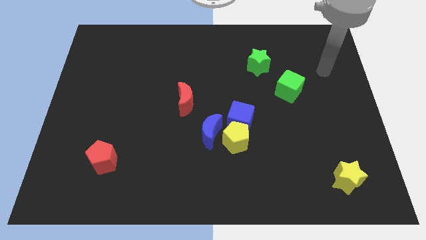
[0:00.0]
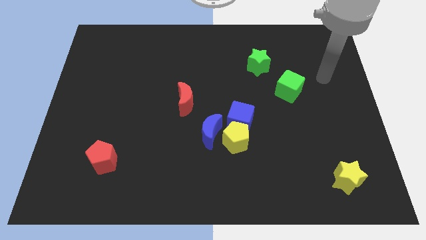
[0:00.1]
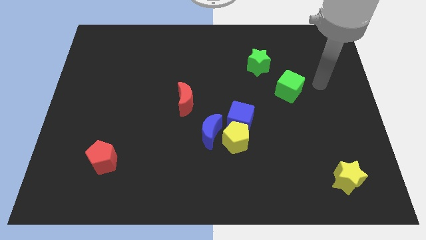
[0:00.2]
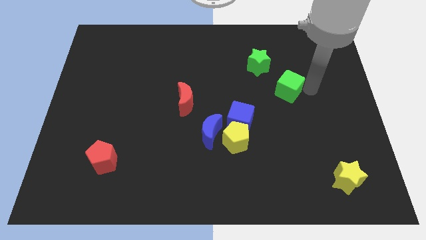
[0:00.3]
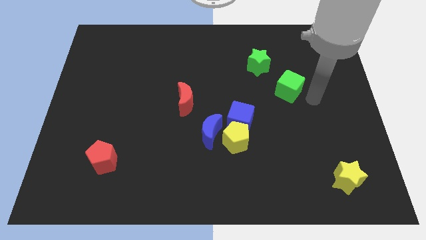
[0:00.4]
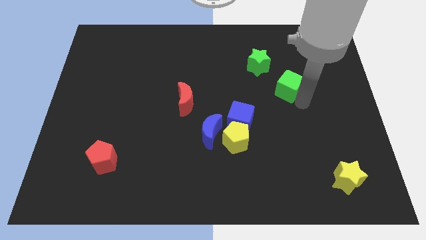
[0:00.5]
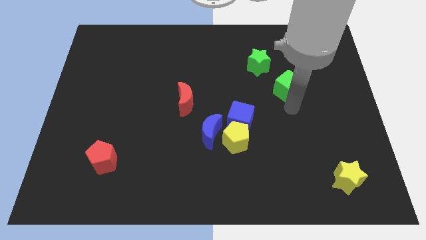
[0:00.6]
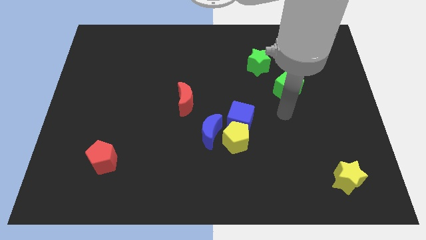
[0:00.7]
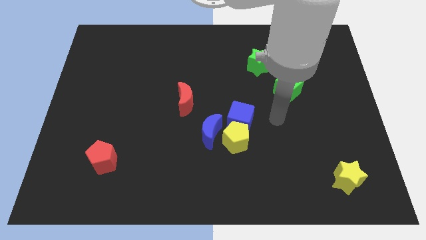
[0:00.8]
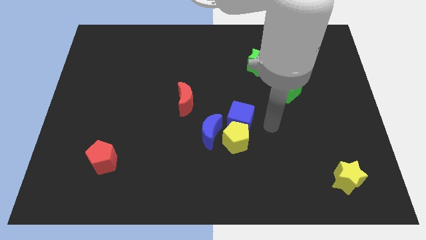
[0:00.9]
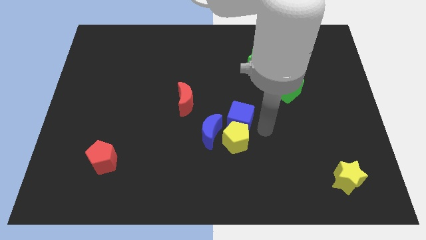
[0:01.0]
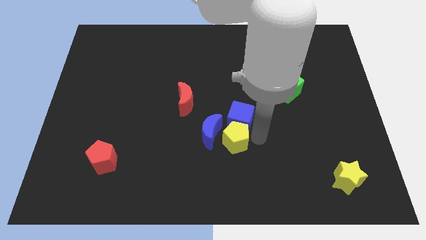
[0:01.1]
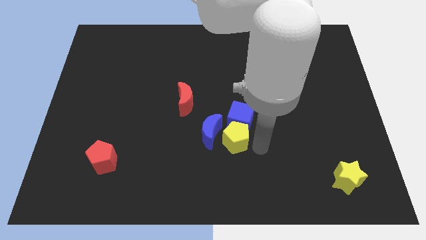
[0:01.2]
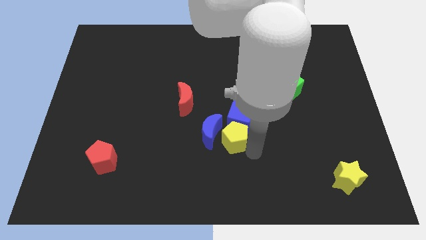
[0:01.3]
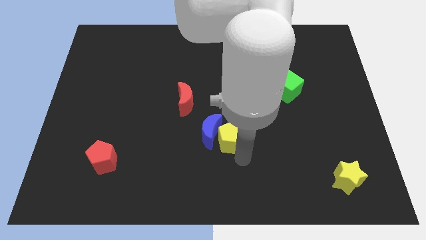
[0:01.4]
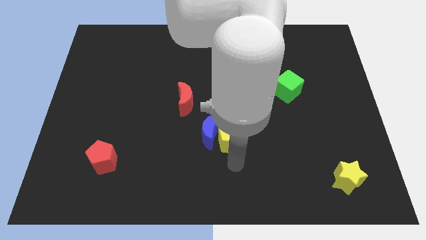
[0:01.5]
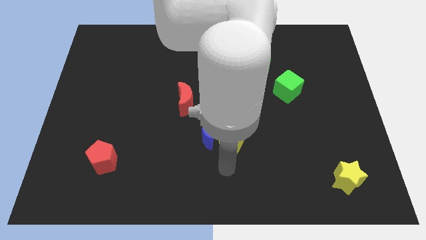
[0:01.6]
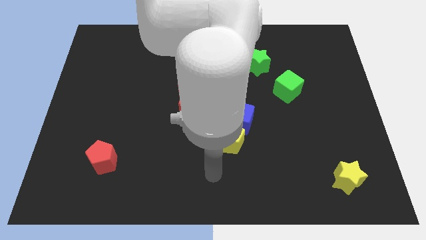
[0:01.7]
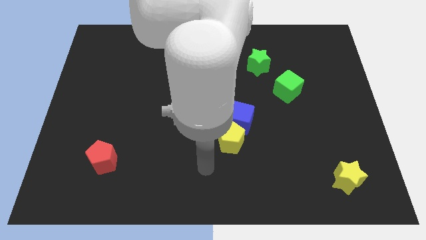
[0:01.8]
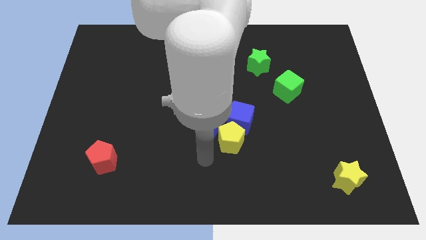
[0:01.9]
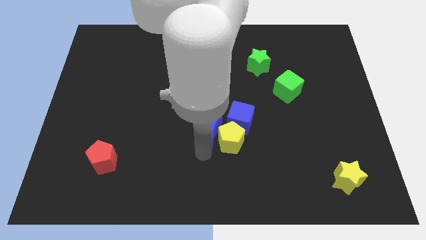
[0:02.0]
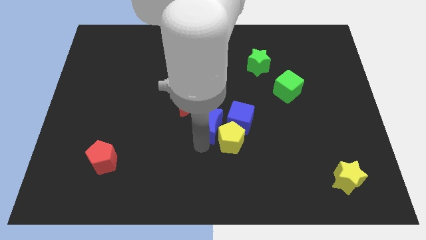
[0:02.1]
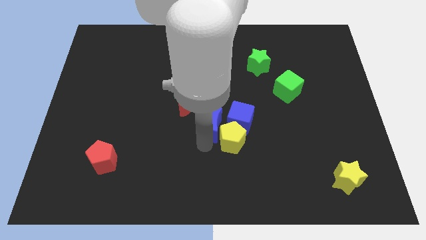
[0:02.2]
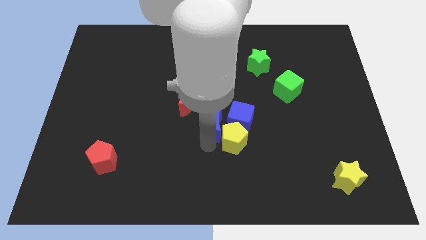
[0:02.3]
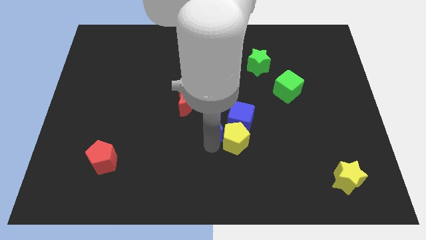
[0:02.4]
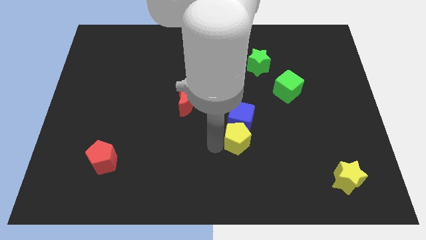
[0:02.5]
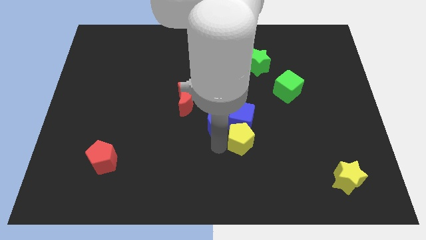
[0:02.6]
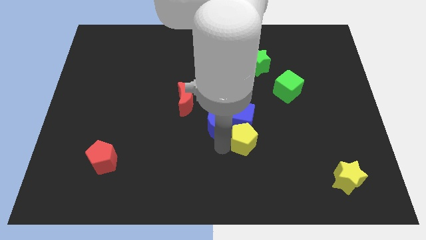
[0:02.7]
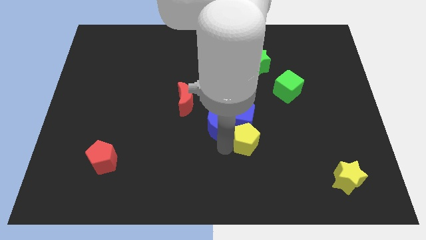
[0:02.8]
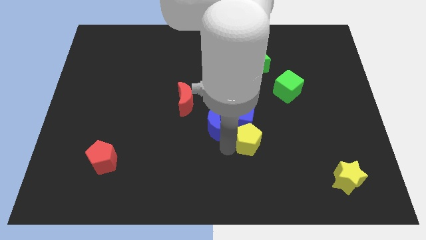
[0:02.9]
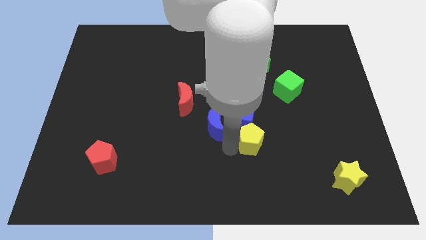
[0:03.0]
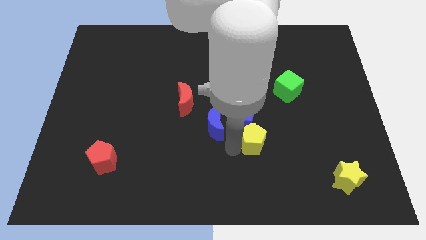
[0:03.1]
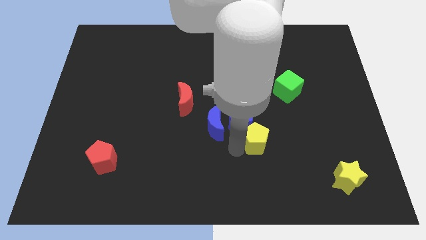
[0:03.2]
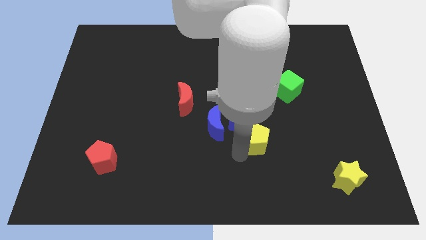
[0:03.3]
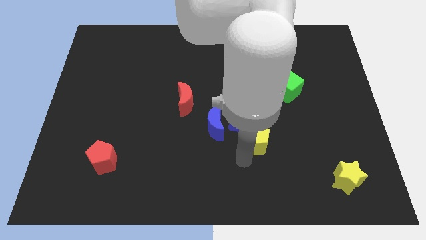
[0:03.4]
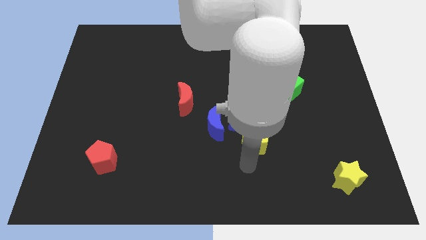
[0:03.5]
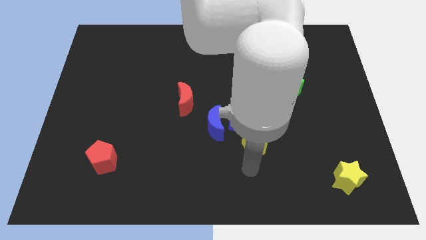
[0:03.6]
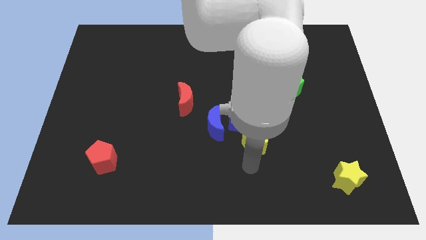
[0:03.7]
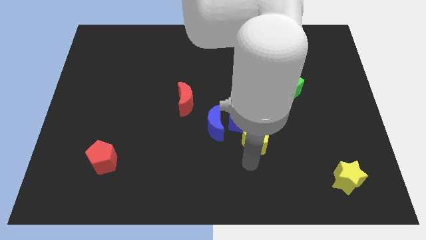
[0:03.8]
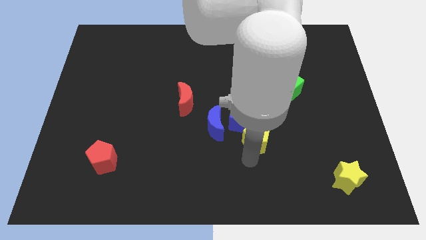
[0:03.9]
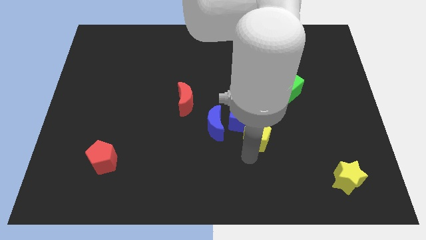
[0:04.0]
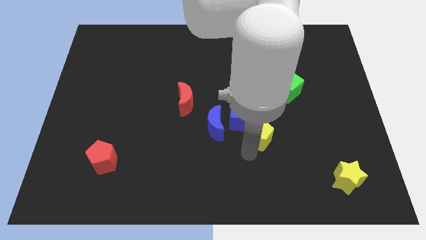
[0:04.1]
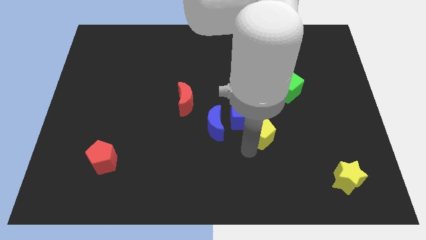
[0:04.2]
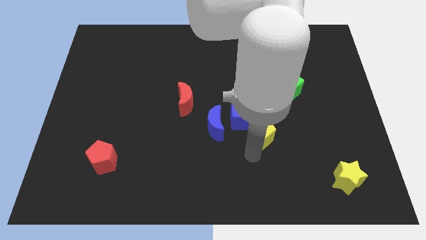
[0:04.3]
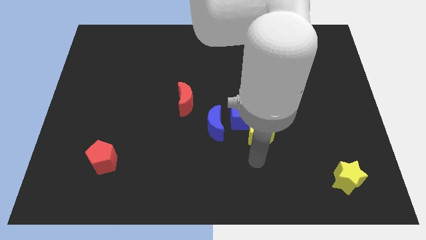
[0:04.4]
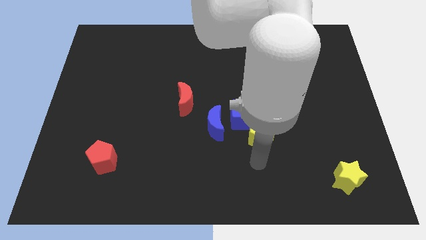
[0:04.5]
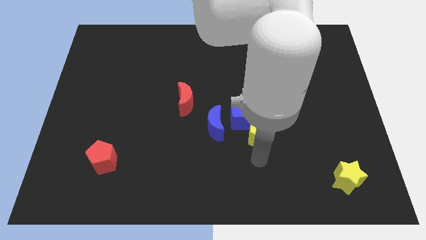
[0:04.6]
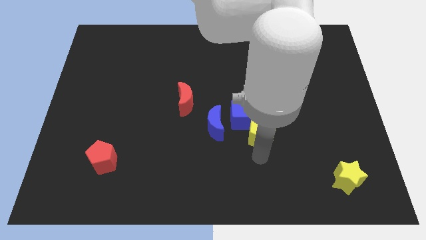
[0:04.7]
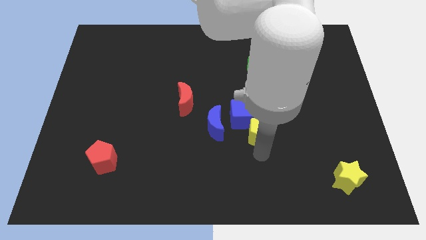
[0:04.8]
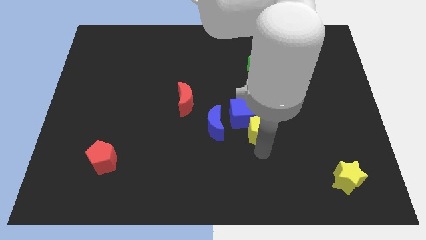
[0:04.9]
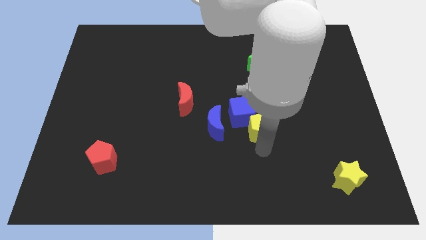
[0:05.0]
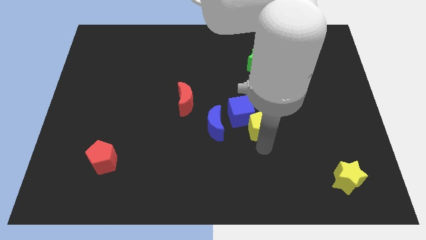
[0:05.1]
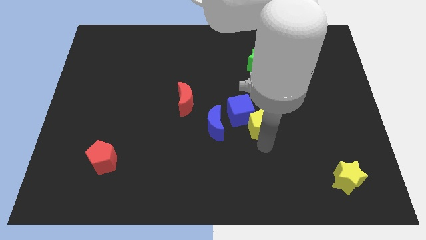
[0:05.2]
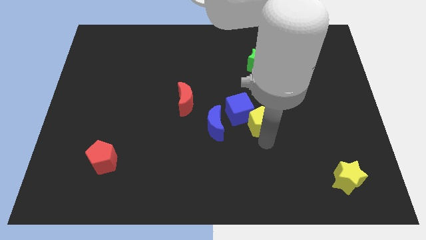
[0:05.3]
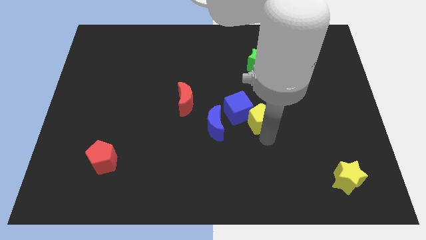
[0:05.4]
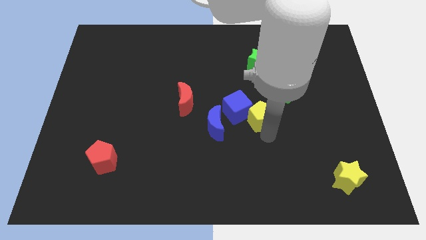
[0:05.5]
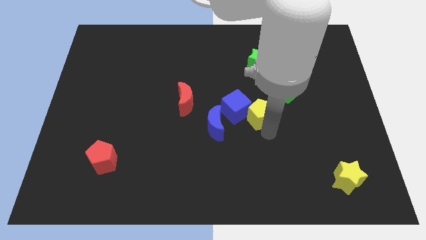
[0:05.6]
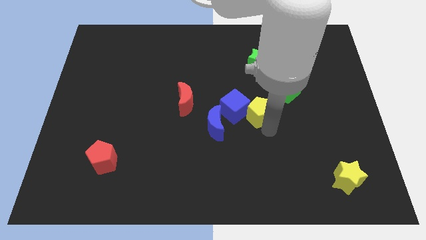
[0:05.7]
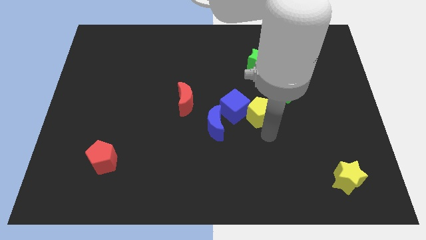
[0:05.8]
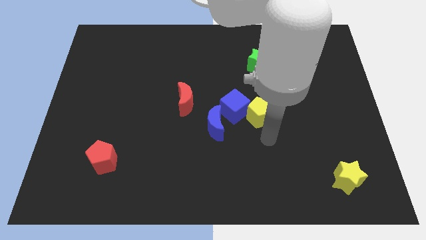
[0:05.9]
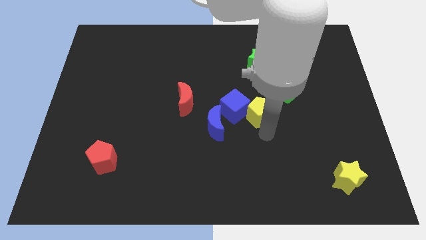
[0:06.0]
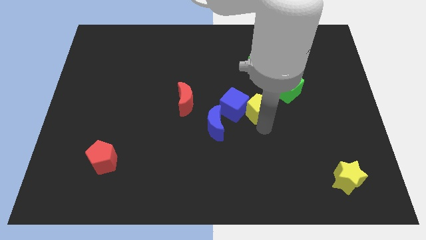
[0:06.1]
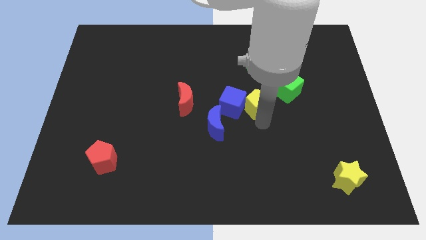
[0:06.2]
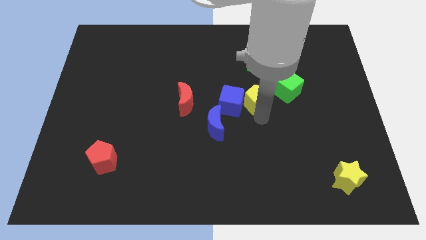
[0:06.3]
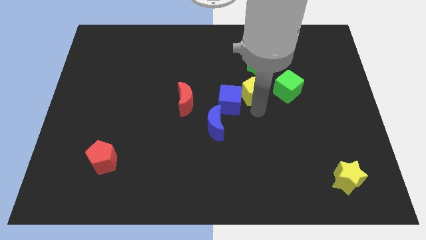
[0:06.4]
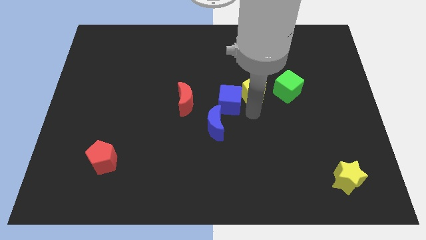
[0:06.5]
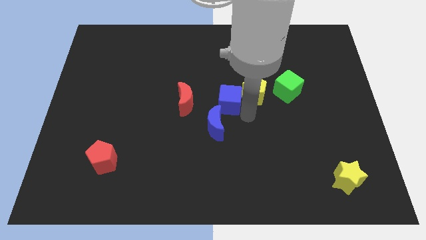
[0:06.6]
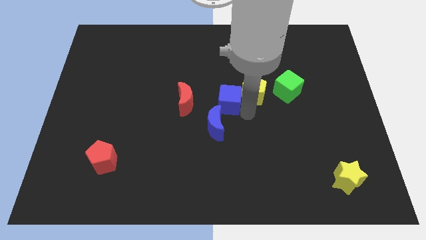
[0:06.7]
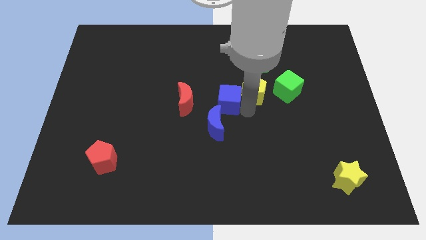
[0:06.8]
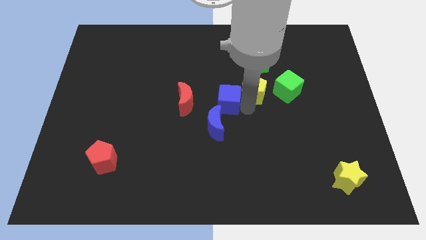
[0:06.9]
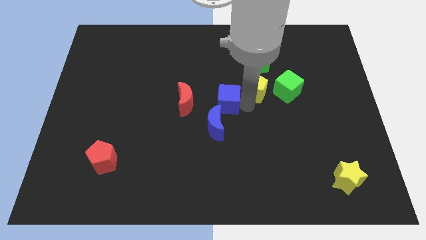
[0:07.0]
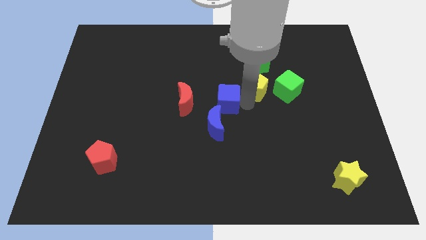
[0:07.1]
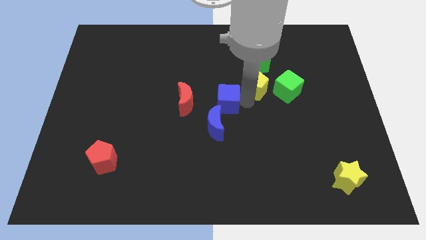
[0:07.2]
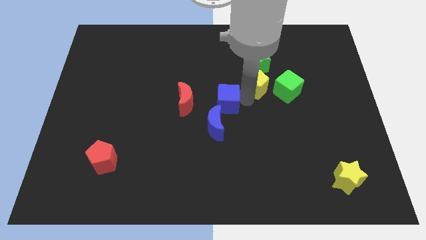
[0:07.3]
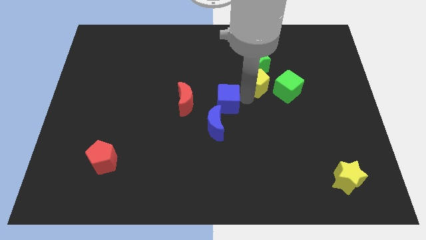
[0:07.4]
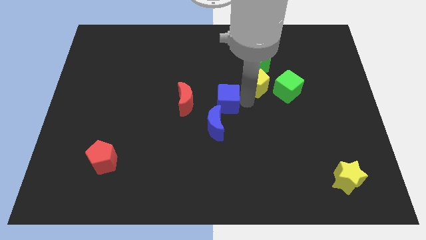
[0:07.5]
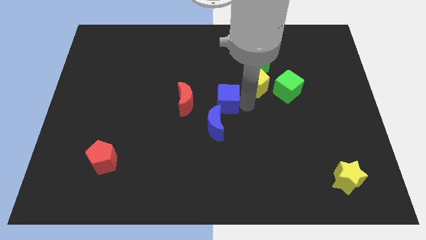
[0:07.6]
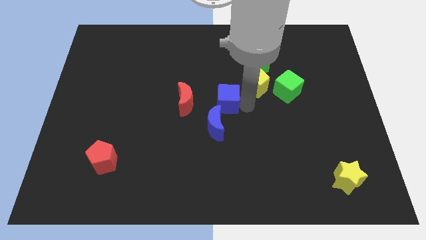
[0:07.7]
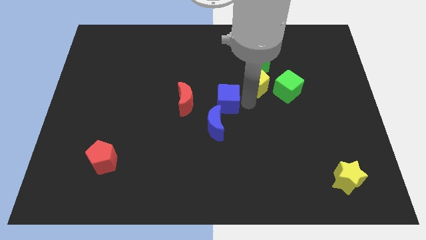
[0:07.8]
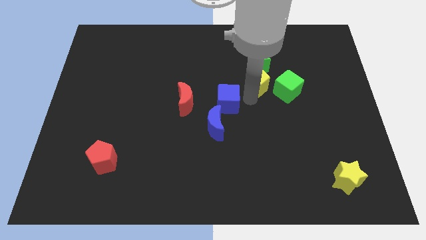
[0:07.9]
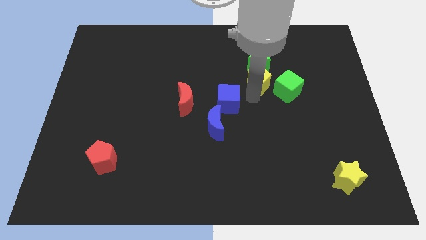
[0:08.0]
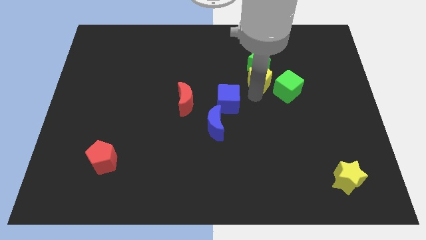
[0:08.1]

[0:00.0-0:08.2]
push the yellow pentagon close to the green star
